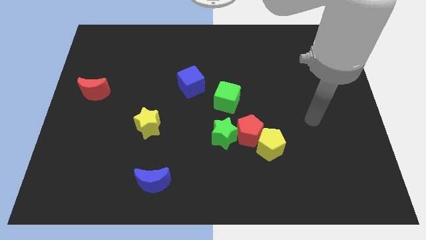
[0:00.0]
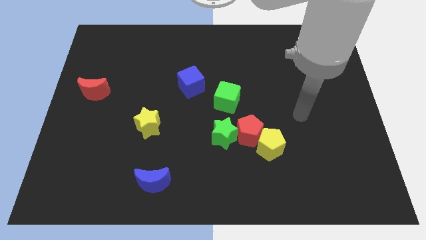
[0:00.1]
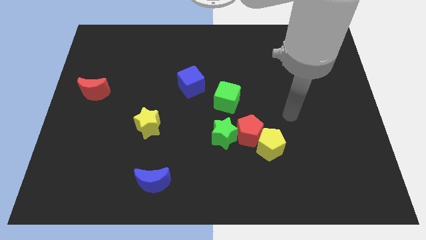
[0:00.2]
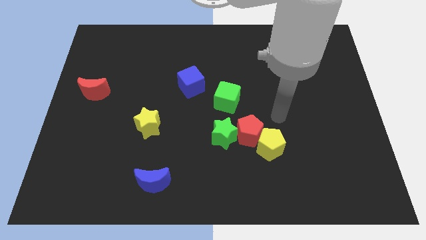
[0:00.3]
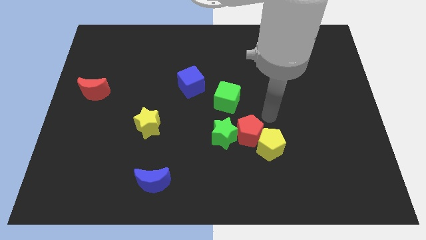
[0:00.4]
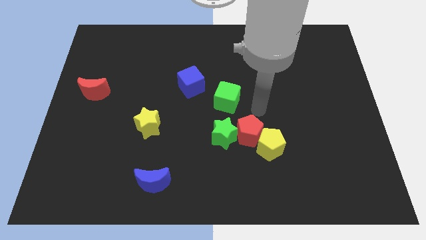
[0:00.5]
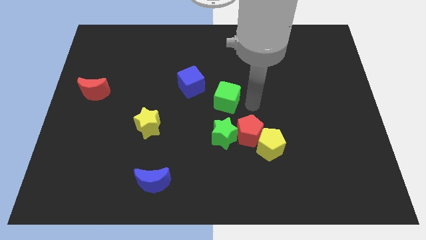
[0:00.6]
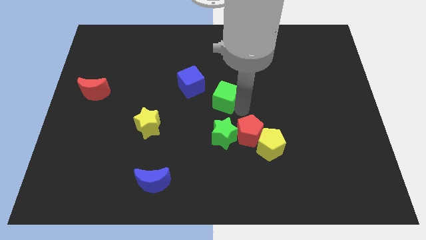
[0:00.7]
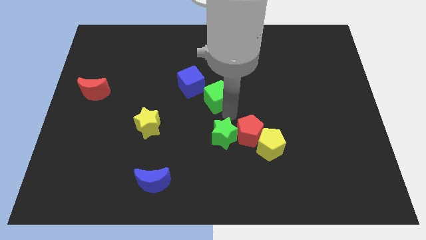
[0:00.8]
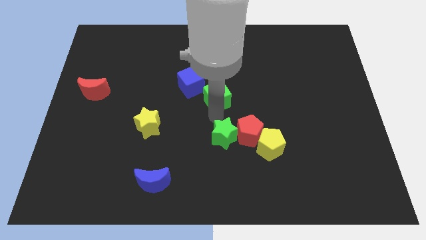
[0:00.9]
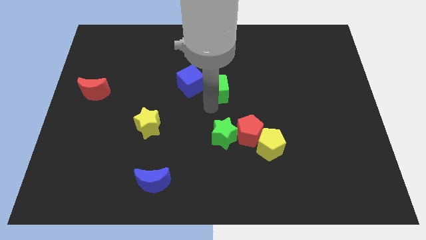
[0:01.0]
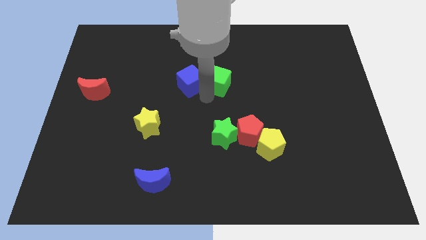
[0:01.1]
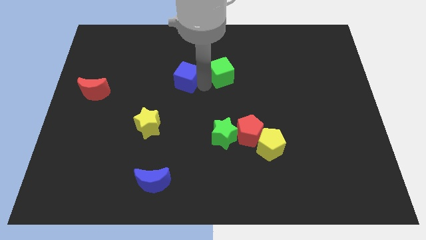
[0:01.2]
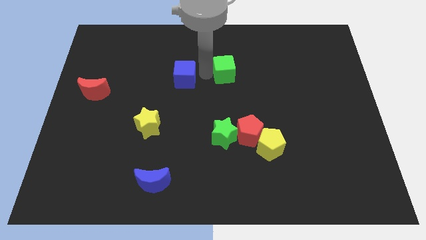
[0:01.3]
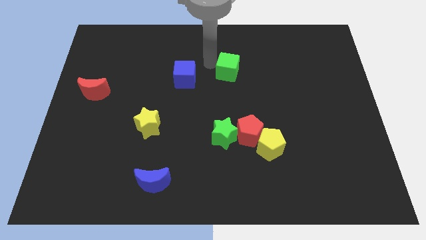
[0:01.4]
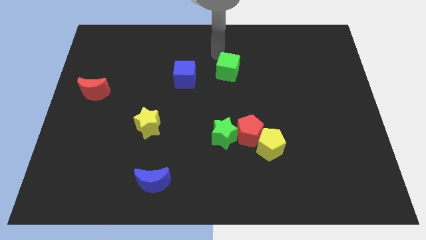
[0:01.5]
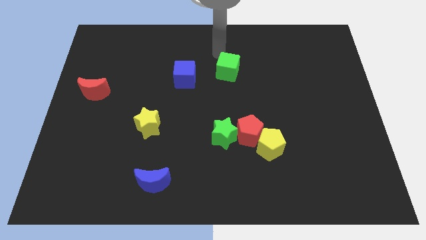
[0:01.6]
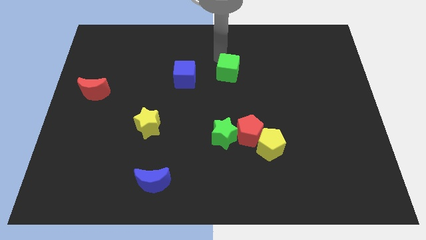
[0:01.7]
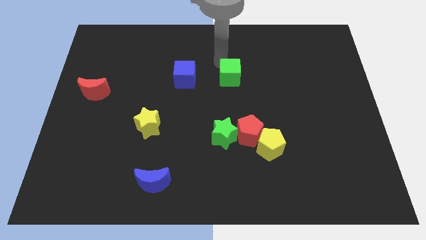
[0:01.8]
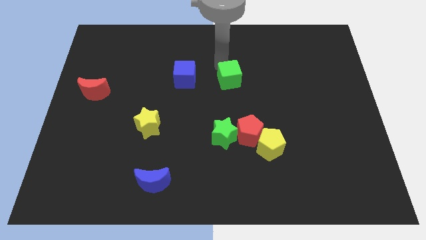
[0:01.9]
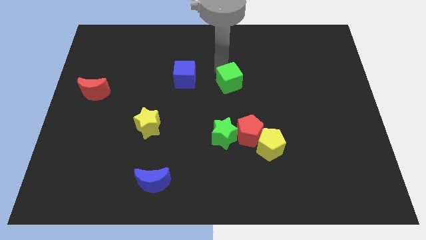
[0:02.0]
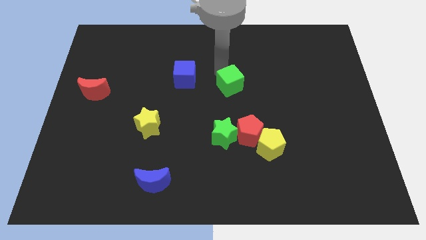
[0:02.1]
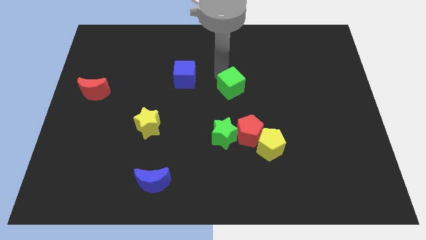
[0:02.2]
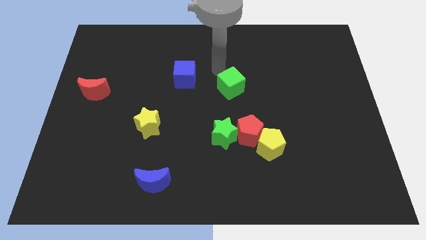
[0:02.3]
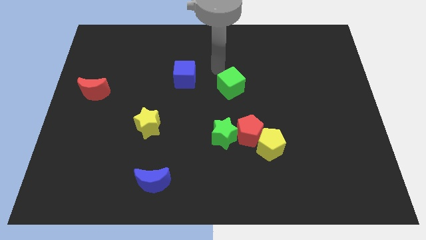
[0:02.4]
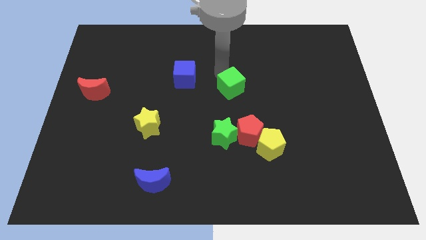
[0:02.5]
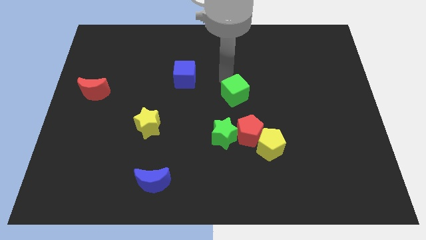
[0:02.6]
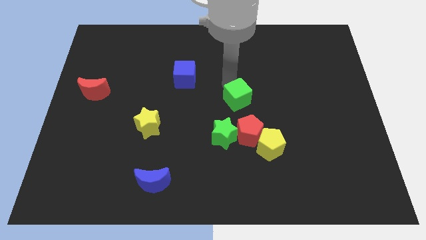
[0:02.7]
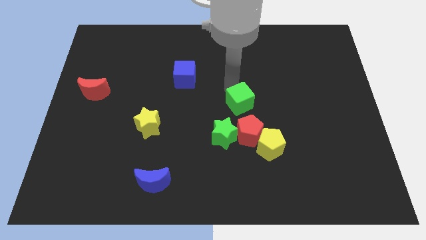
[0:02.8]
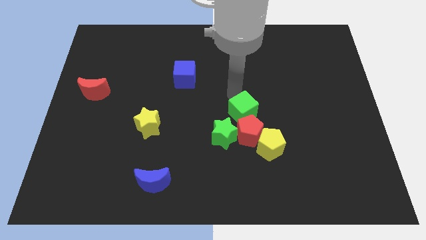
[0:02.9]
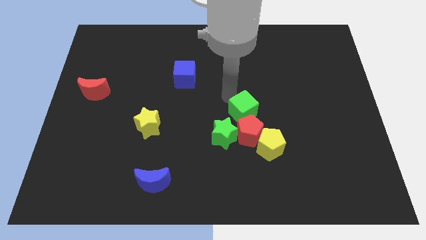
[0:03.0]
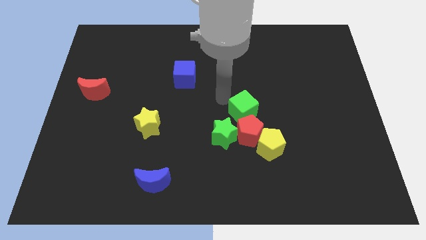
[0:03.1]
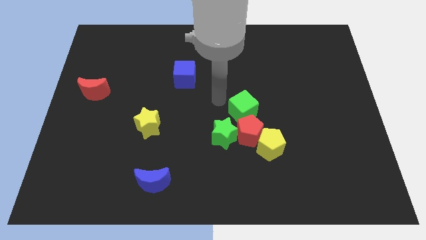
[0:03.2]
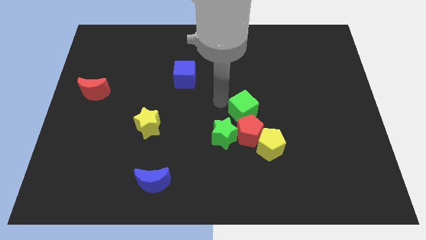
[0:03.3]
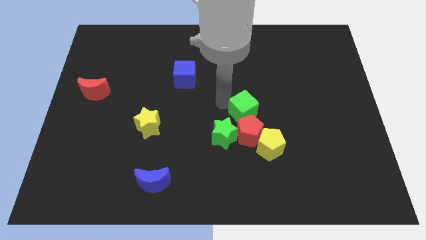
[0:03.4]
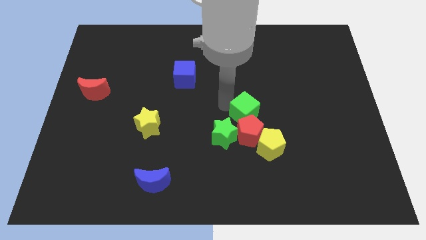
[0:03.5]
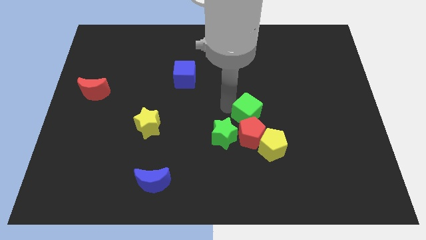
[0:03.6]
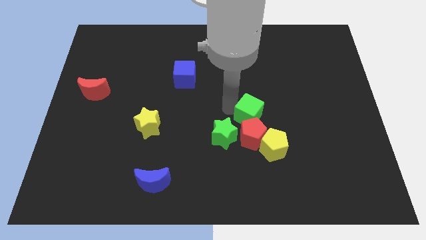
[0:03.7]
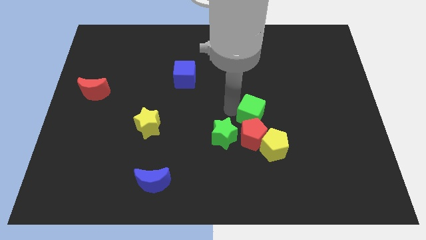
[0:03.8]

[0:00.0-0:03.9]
slightly slide the green cube diagonally down and to the right

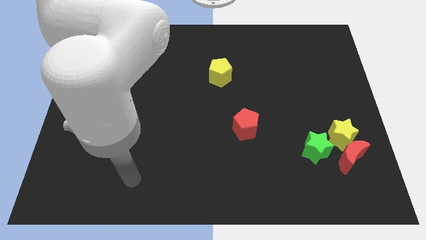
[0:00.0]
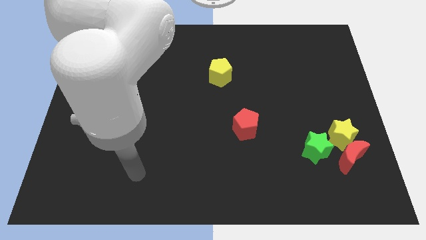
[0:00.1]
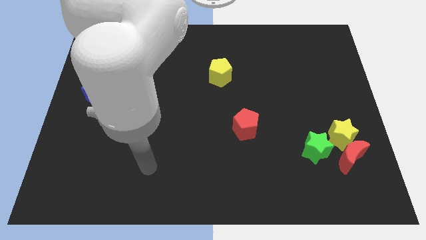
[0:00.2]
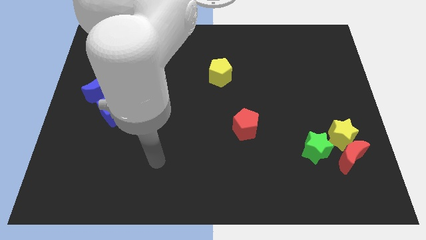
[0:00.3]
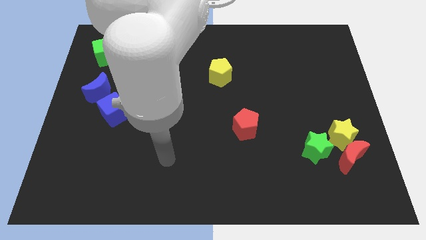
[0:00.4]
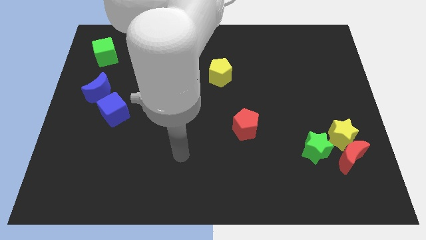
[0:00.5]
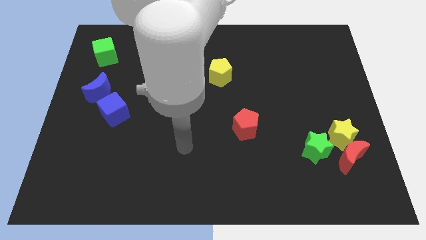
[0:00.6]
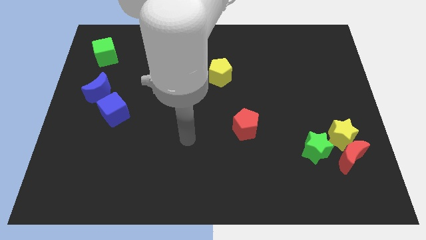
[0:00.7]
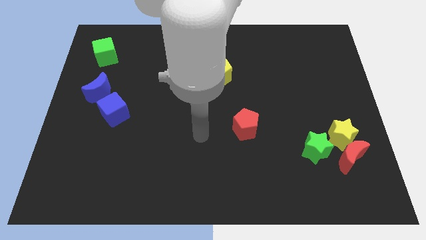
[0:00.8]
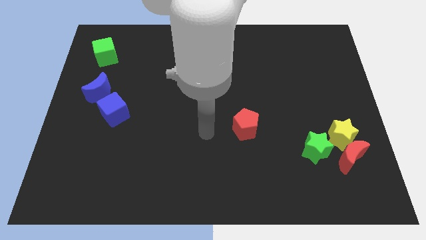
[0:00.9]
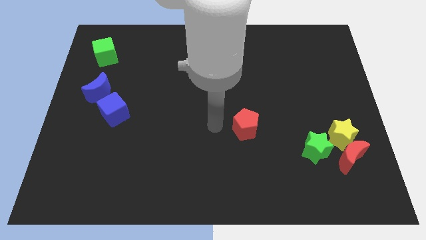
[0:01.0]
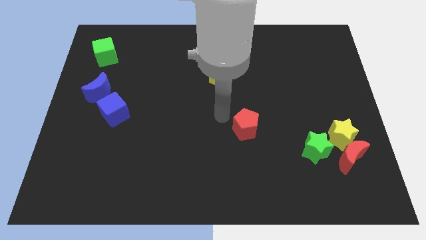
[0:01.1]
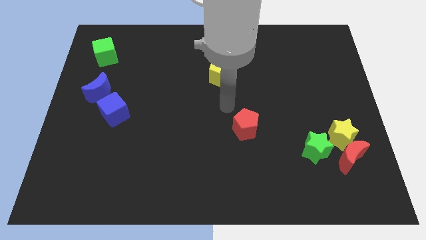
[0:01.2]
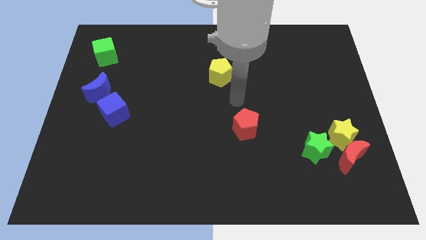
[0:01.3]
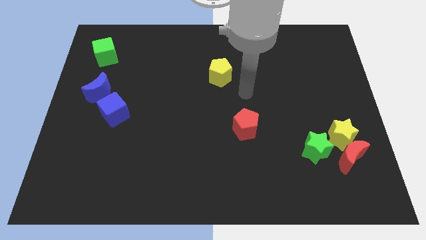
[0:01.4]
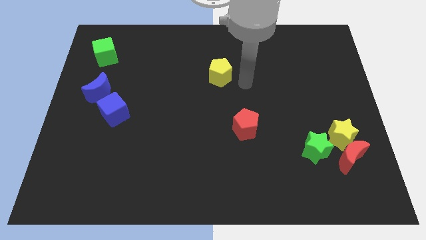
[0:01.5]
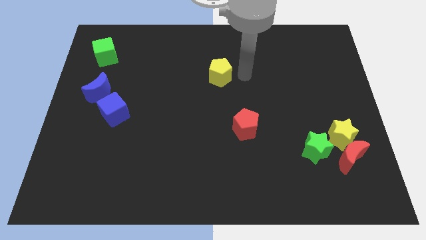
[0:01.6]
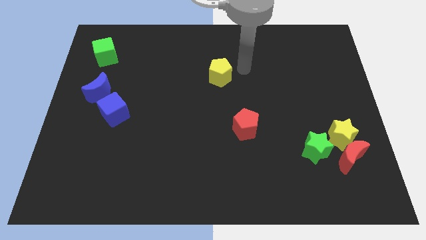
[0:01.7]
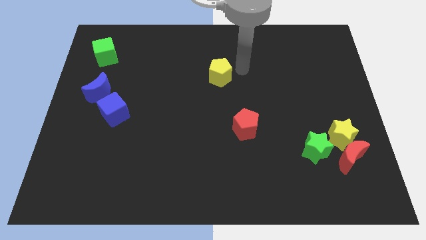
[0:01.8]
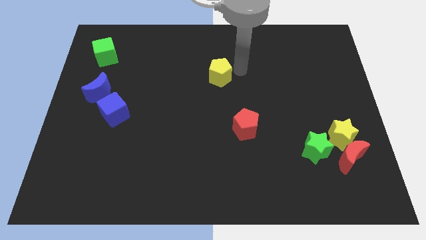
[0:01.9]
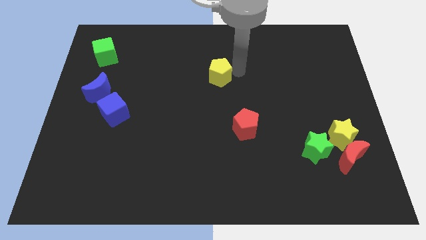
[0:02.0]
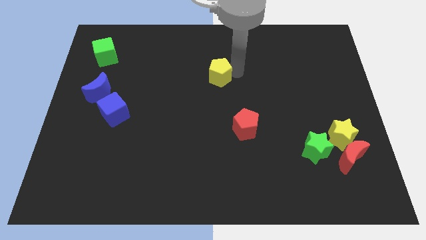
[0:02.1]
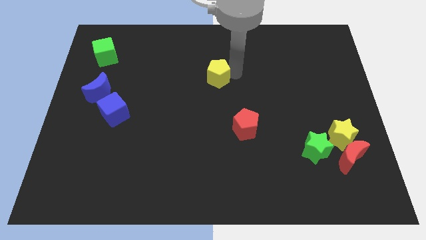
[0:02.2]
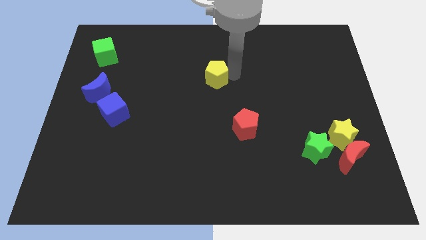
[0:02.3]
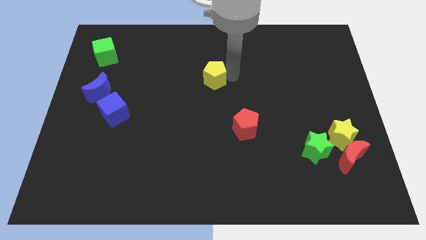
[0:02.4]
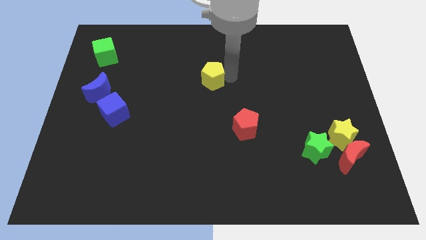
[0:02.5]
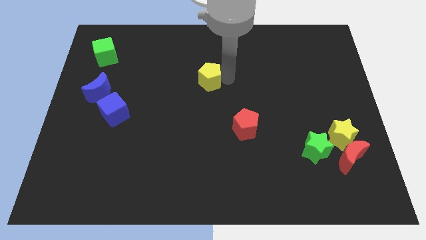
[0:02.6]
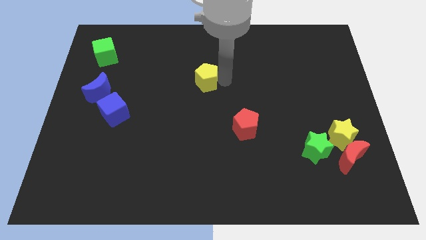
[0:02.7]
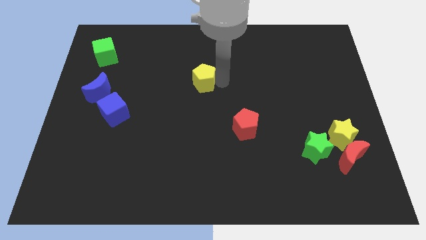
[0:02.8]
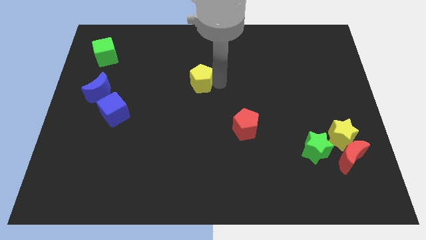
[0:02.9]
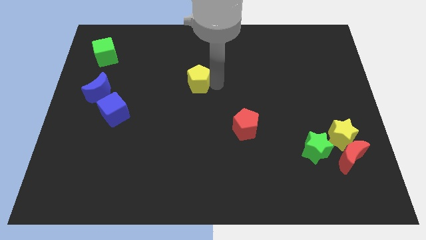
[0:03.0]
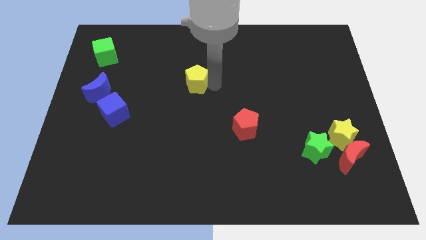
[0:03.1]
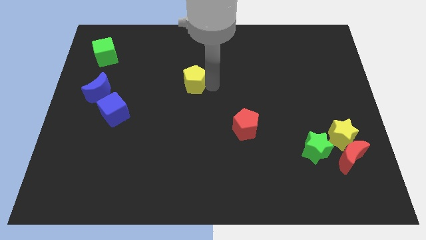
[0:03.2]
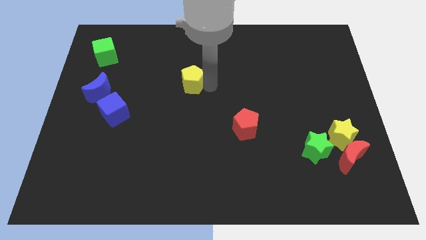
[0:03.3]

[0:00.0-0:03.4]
move the yellow pentagon somewhat left

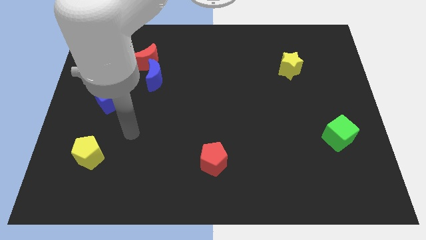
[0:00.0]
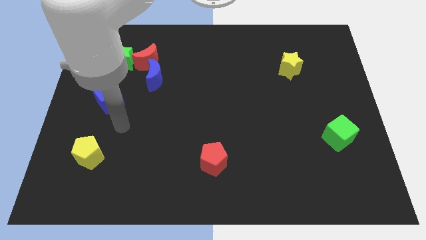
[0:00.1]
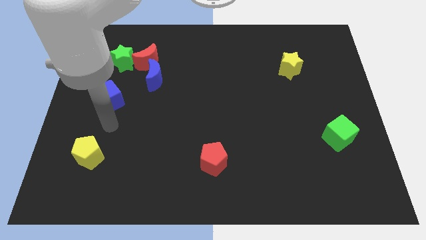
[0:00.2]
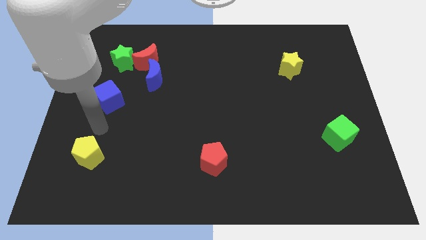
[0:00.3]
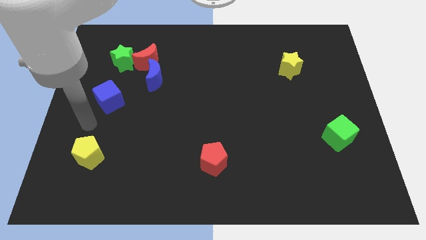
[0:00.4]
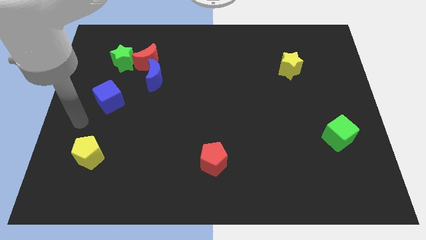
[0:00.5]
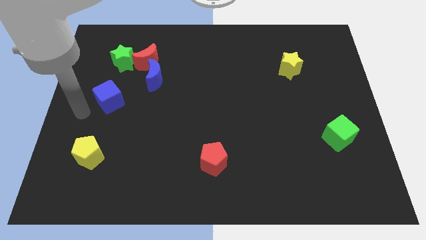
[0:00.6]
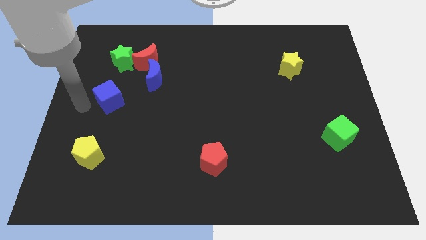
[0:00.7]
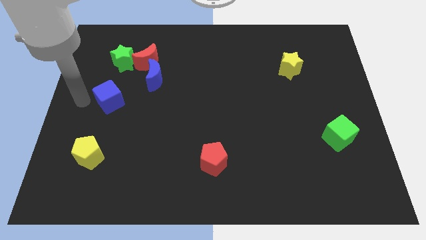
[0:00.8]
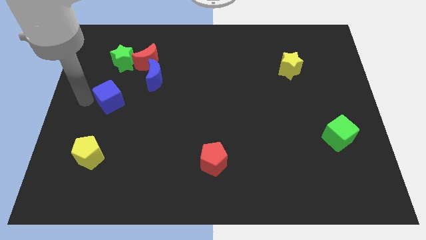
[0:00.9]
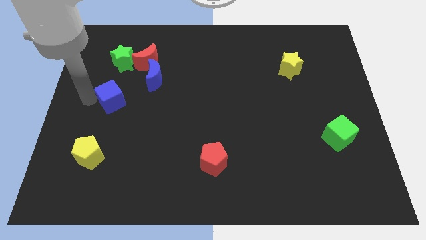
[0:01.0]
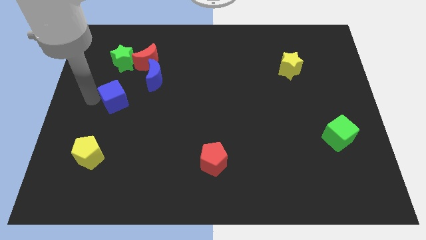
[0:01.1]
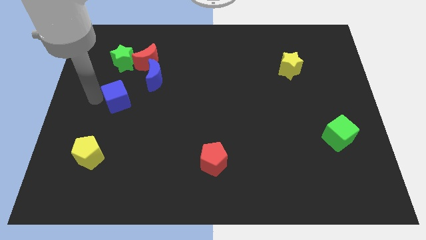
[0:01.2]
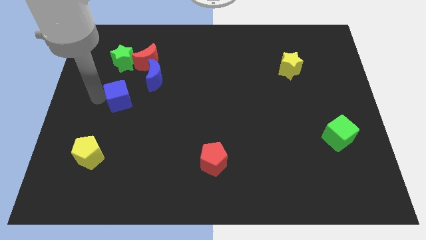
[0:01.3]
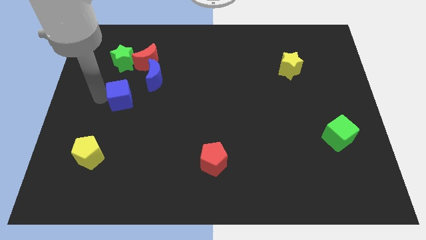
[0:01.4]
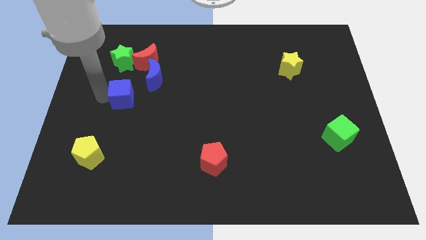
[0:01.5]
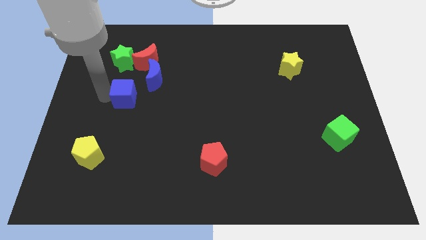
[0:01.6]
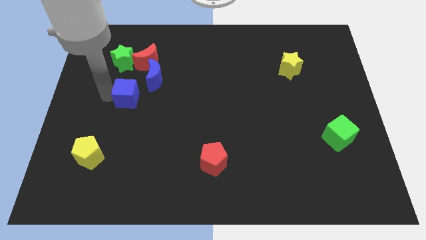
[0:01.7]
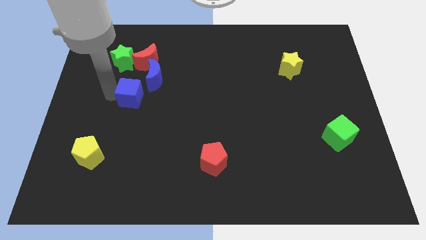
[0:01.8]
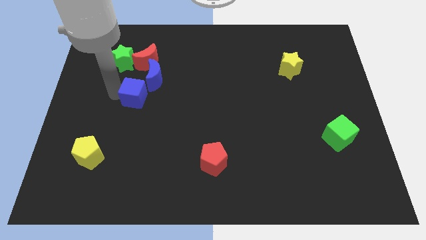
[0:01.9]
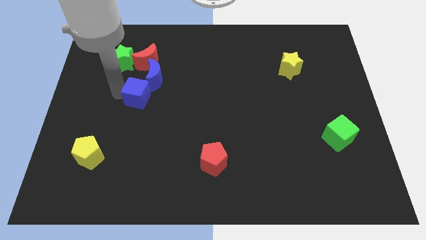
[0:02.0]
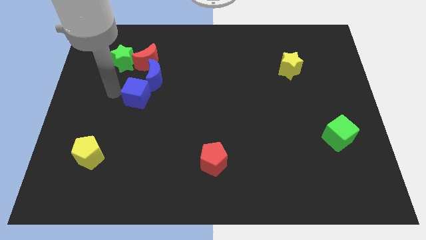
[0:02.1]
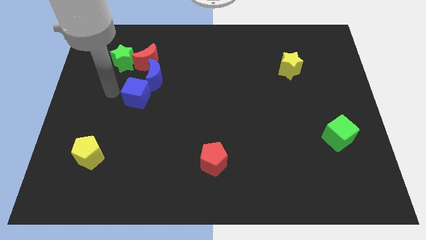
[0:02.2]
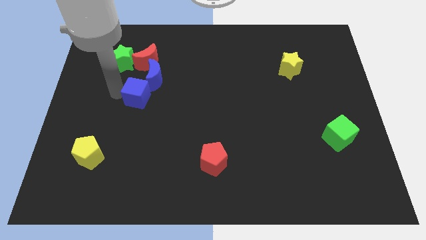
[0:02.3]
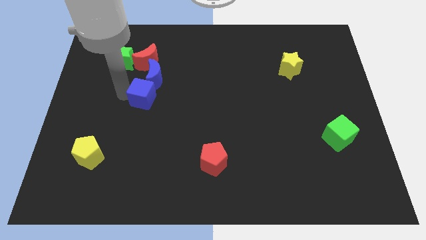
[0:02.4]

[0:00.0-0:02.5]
slightly move the blue cube to the right
